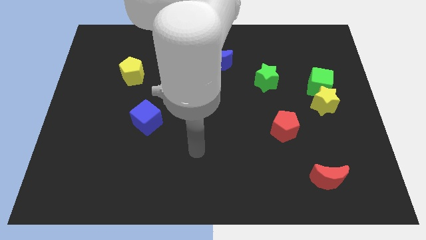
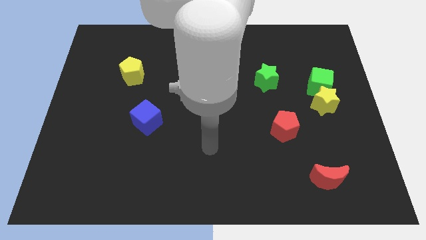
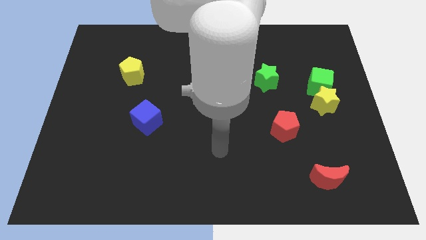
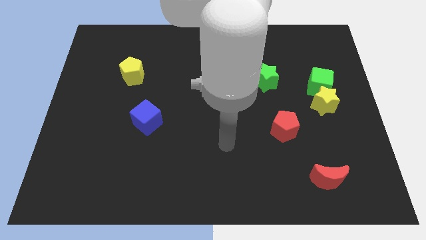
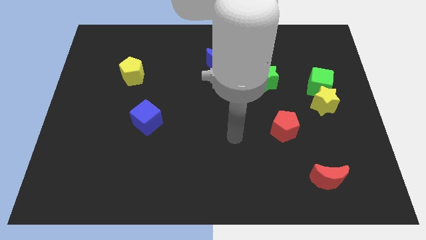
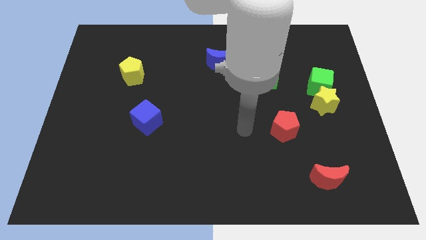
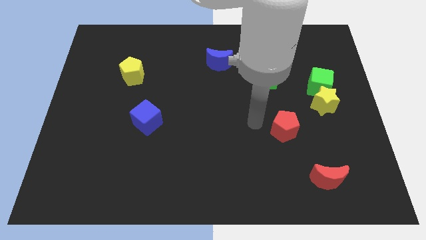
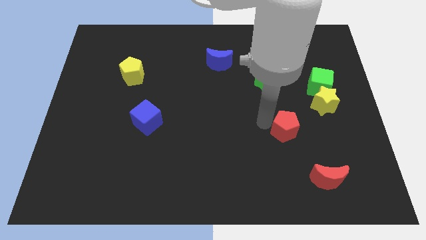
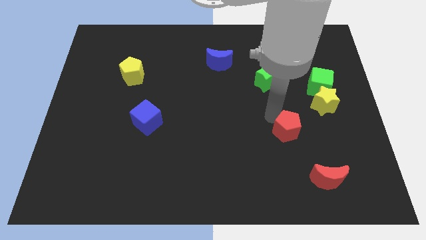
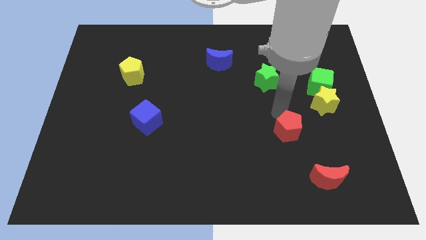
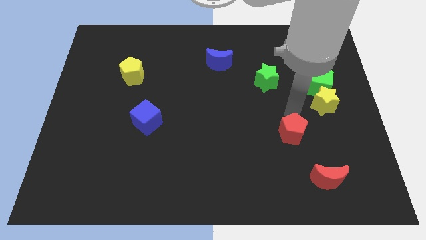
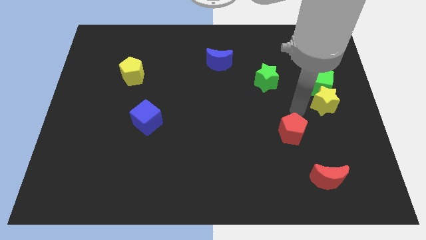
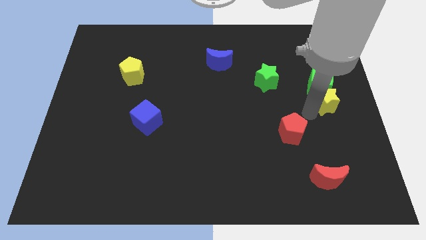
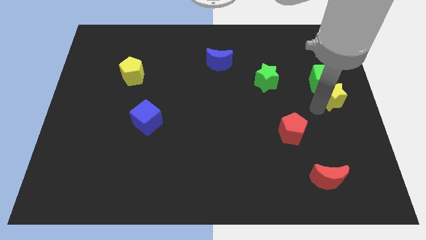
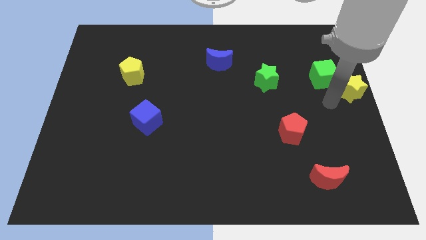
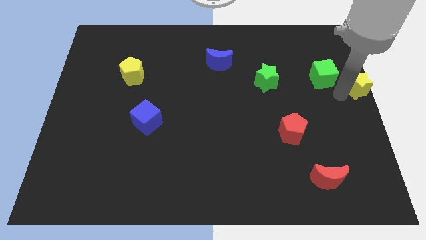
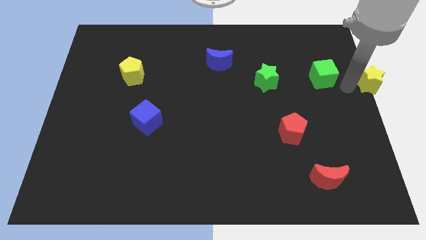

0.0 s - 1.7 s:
pull the green cube apart from the yellow star

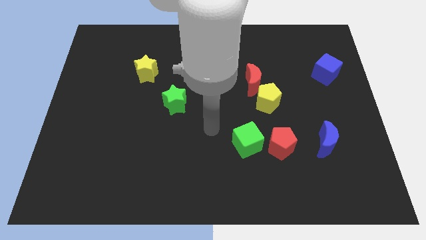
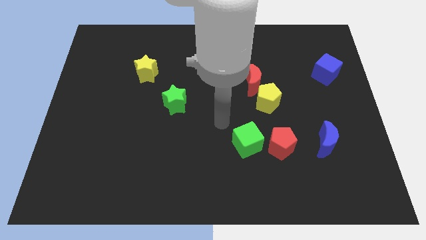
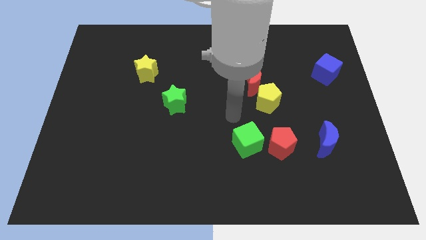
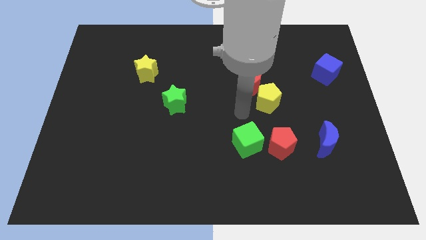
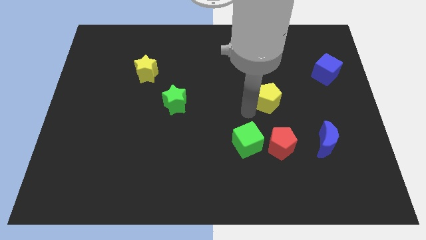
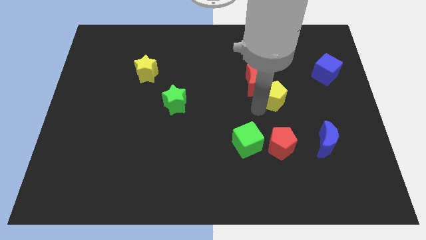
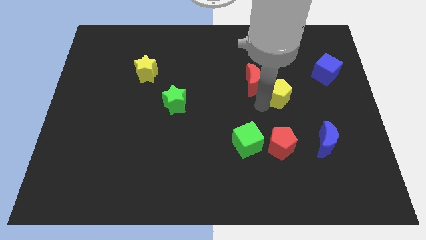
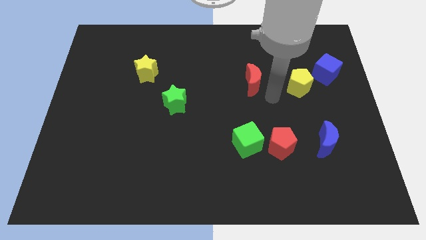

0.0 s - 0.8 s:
pull the red moon apart from the yellow pentagon

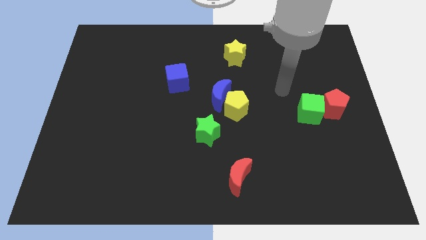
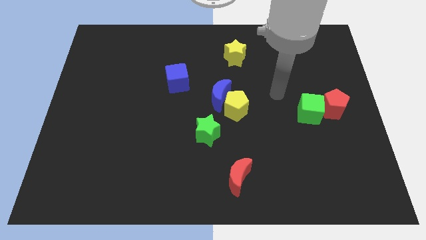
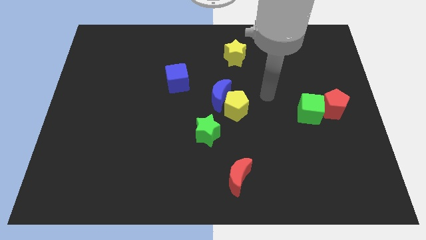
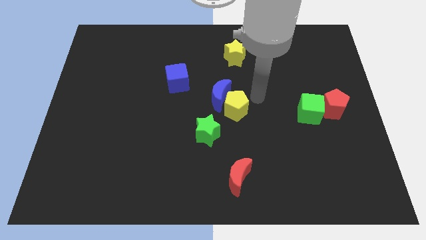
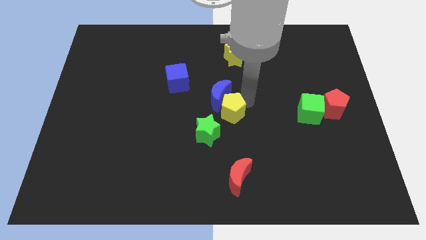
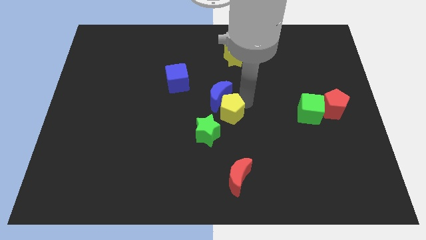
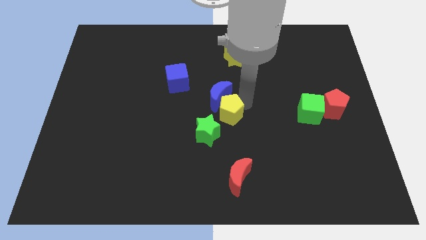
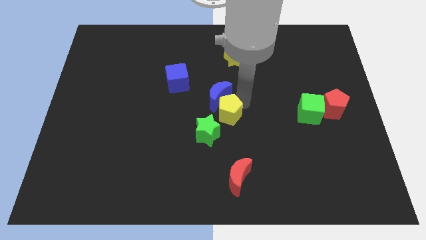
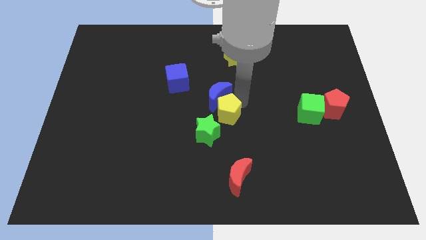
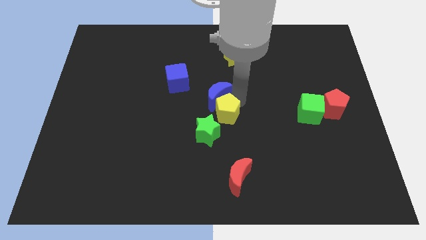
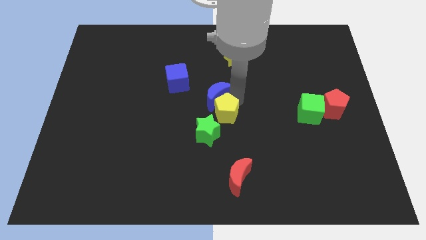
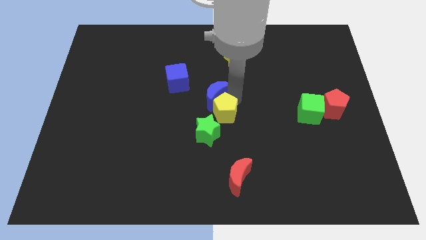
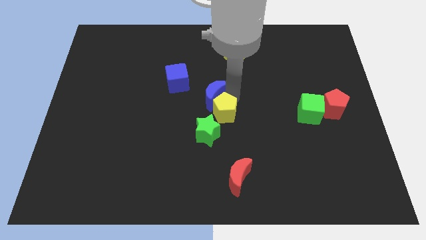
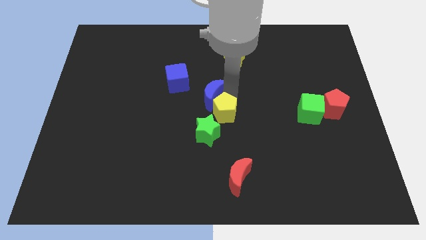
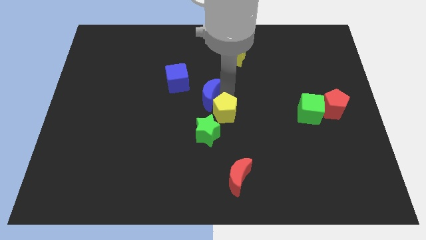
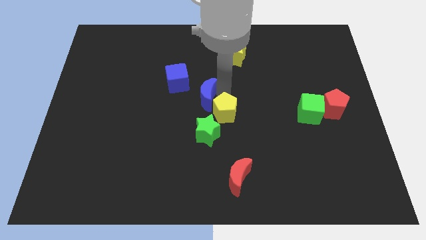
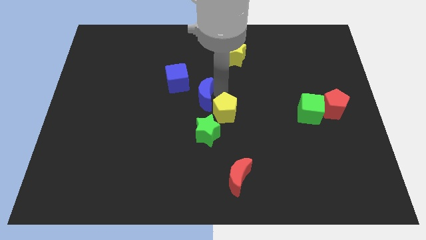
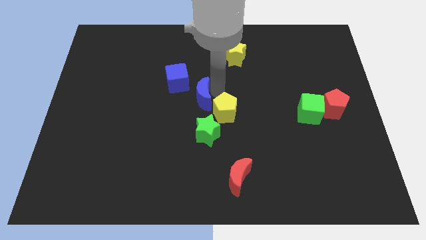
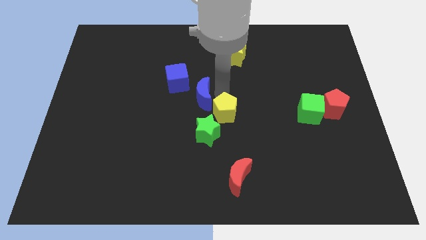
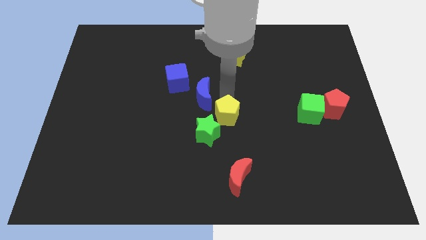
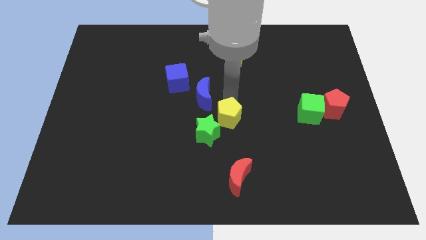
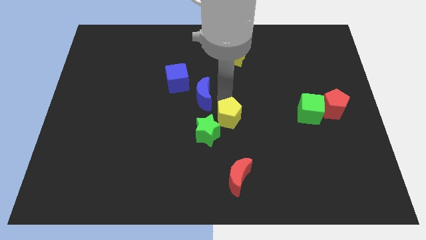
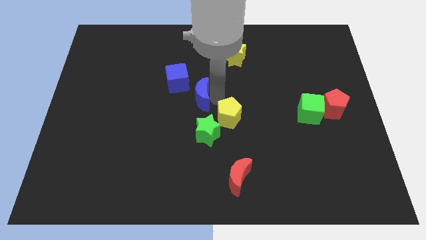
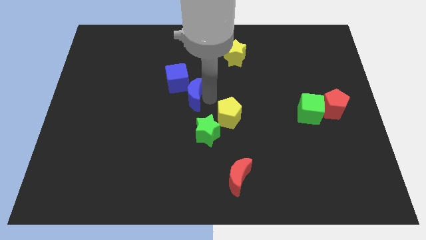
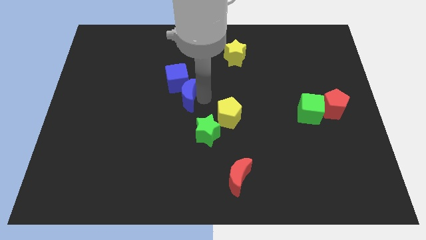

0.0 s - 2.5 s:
separate the blue moon from the yellow pentagon

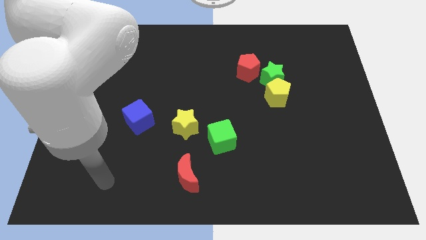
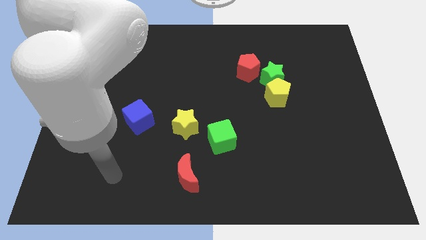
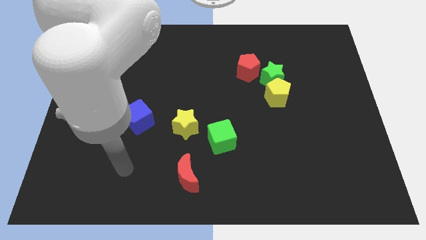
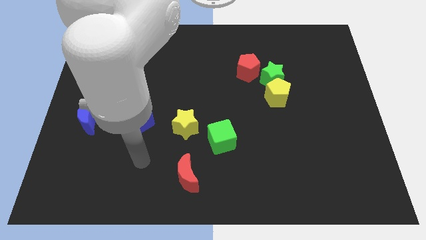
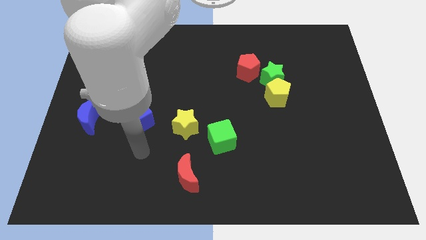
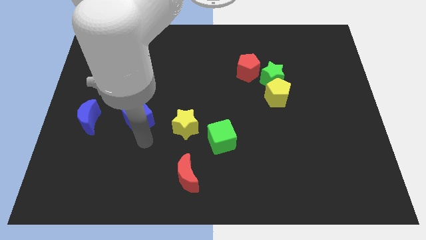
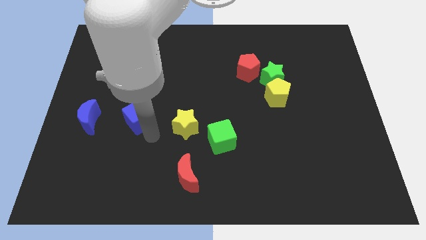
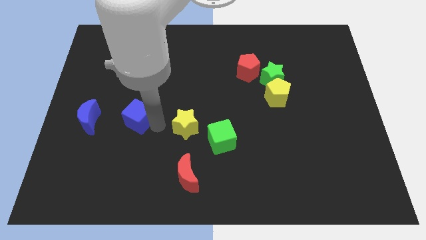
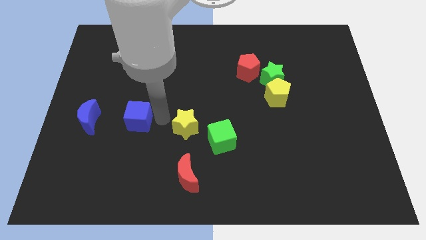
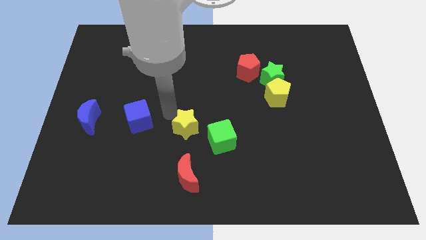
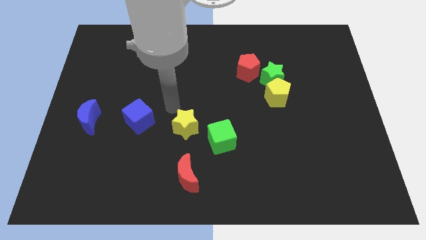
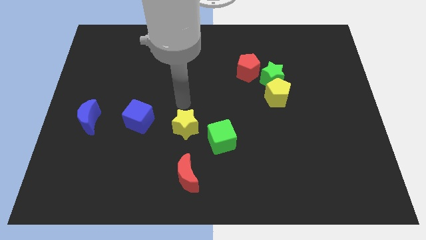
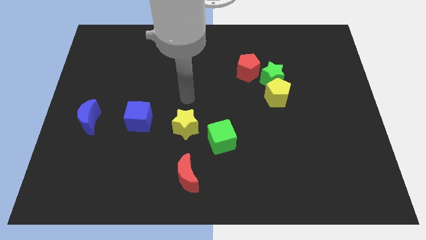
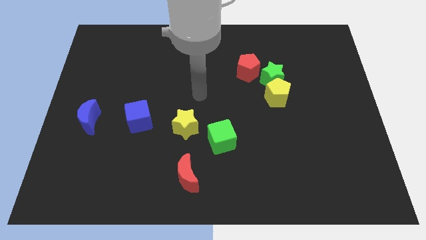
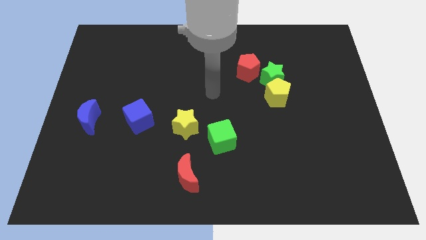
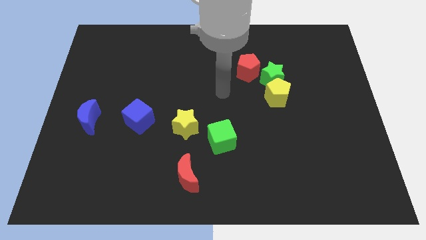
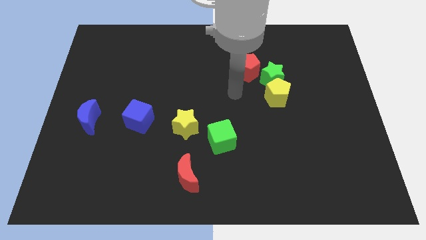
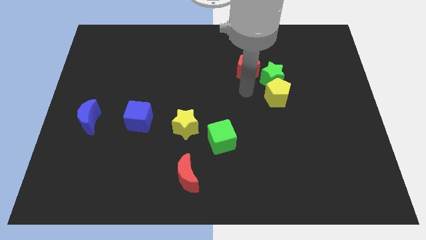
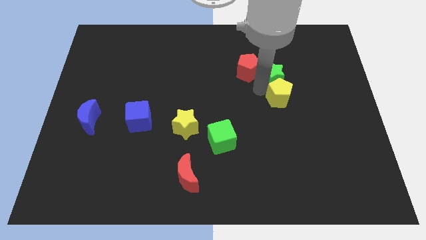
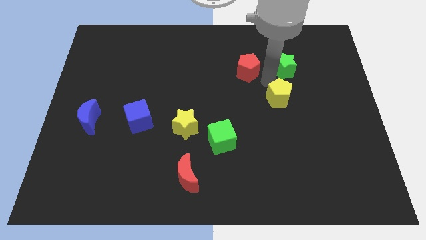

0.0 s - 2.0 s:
pull the yellow pentagon apart from the green star

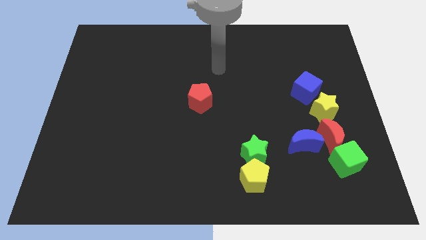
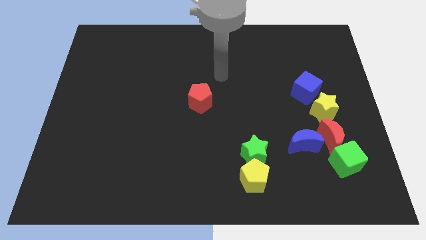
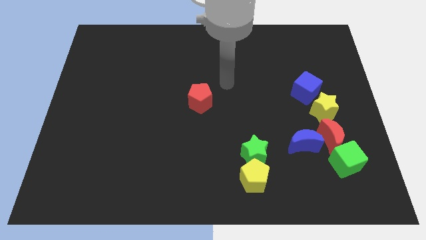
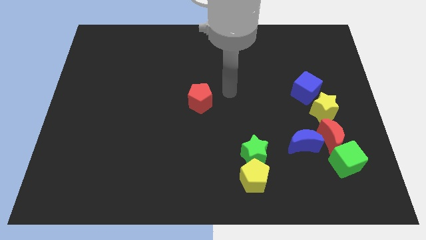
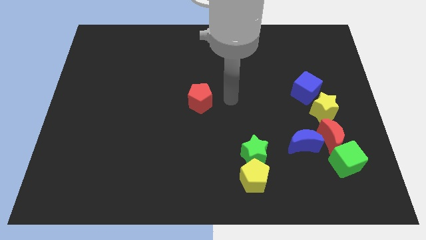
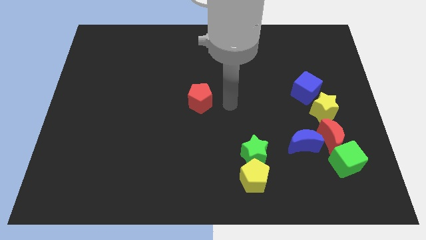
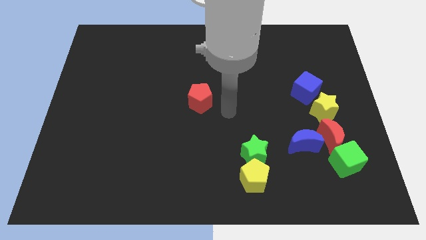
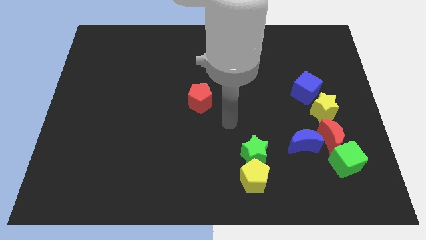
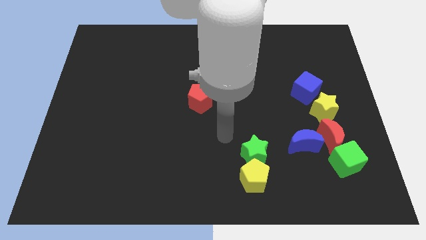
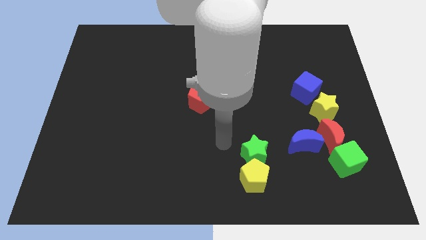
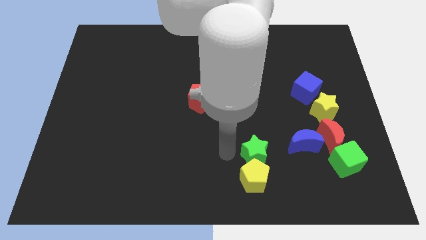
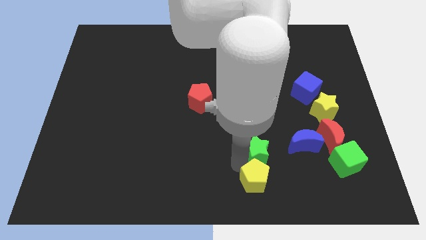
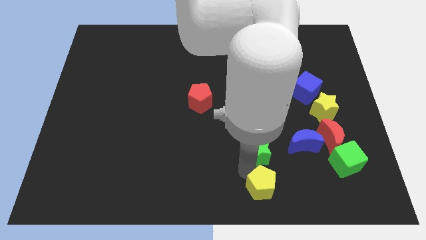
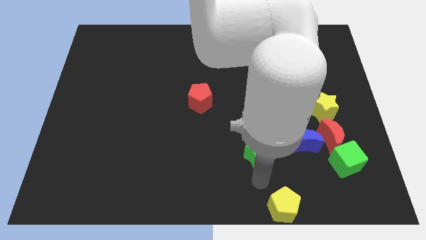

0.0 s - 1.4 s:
move the green star away from the yellow pentagon

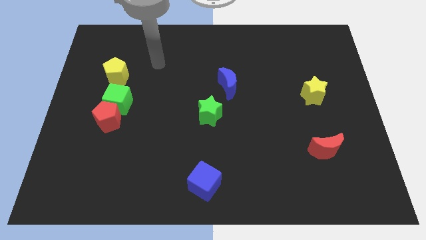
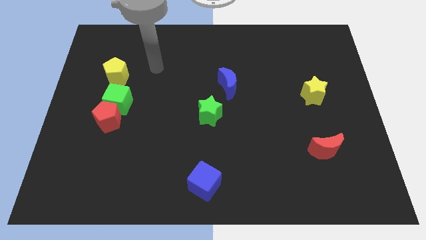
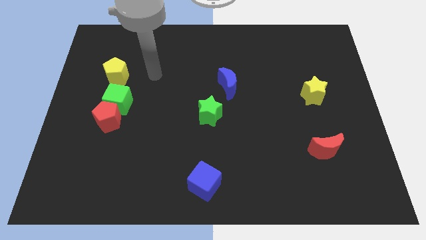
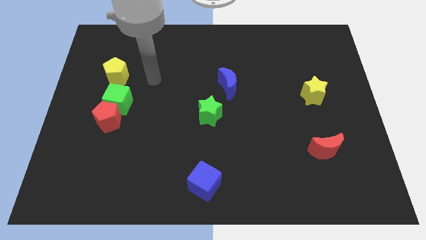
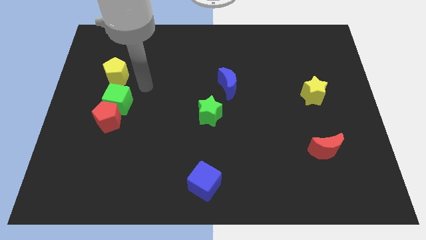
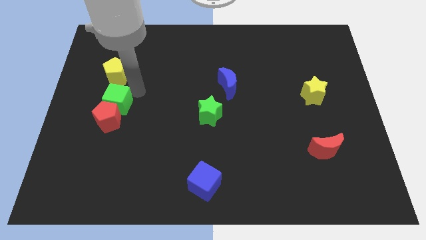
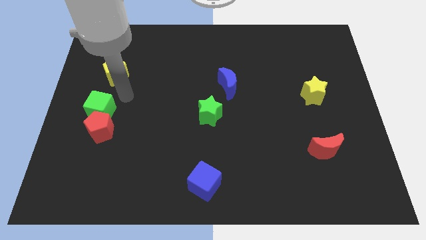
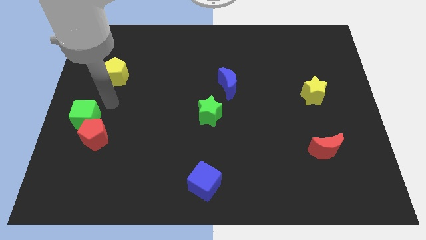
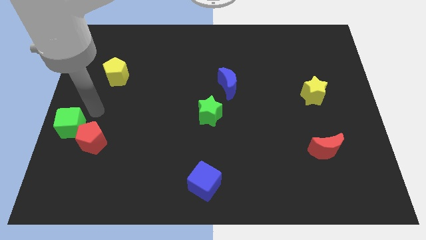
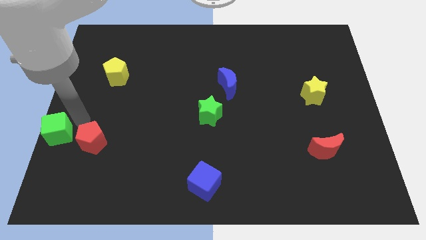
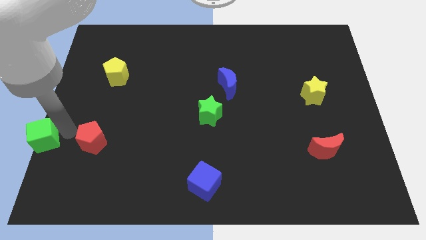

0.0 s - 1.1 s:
move the red pentagon away from the green cube
